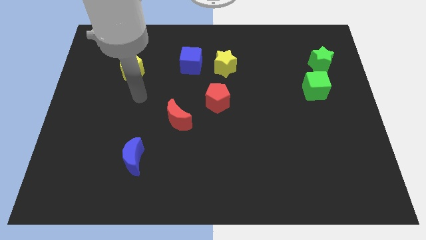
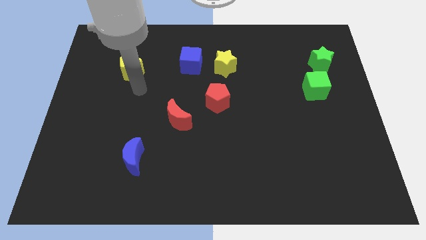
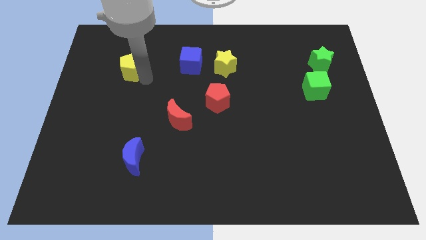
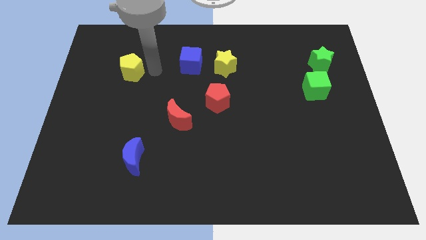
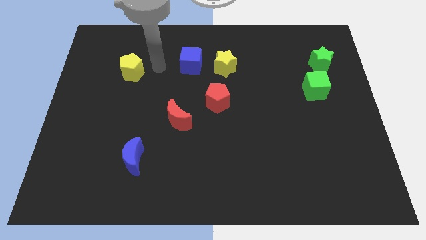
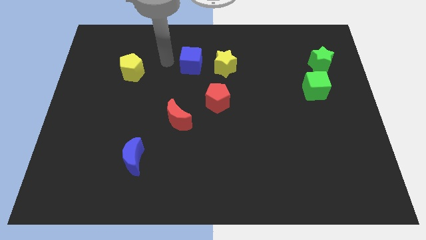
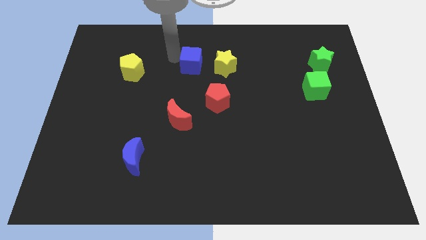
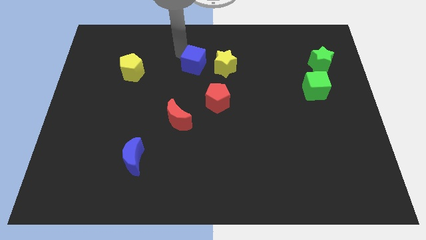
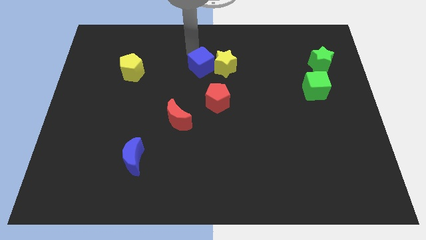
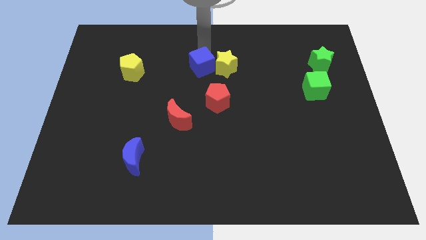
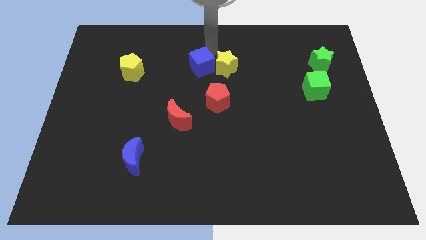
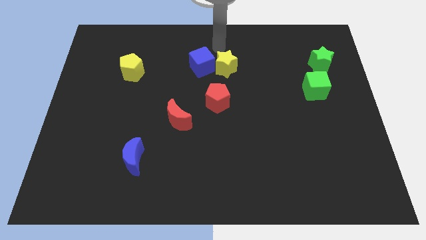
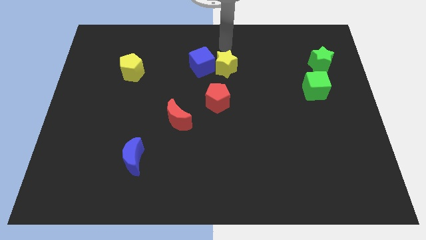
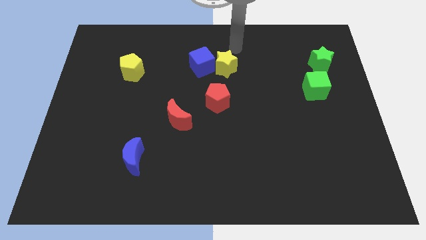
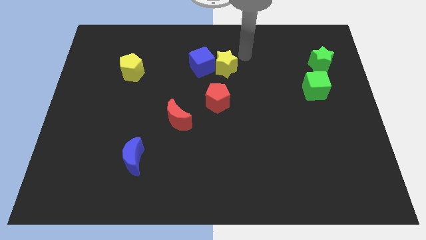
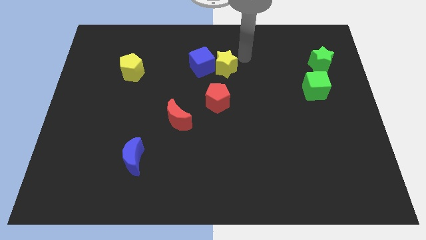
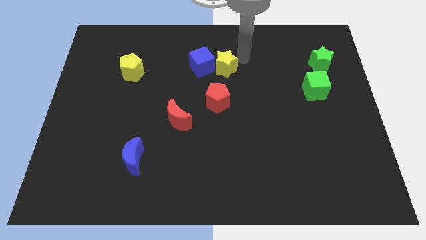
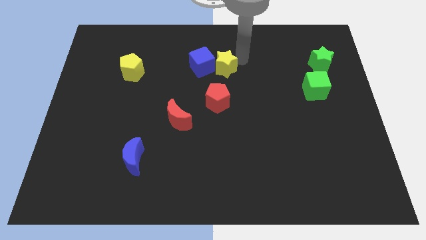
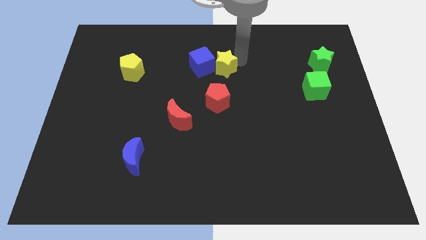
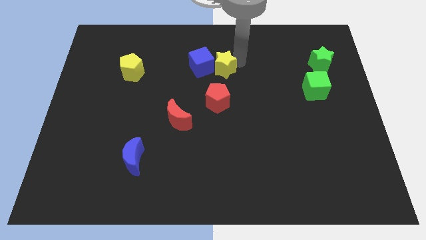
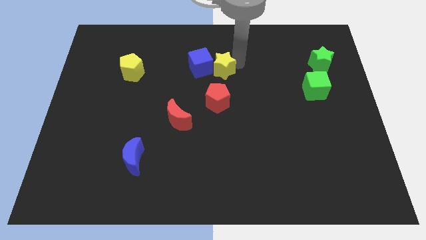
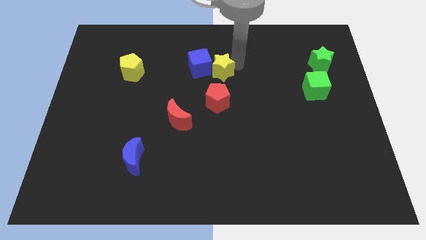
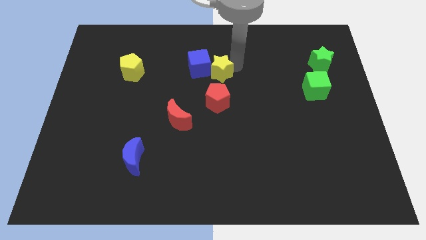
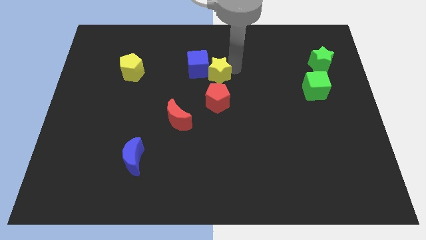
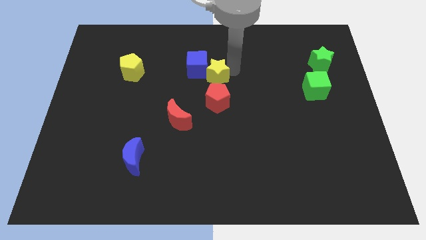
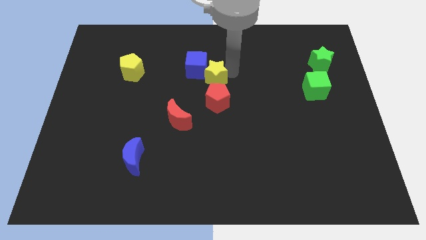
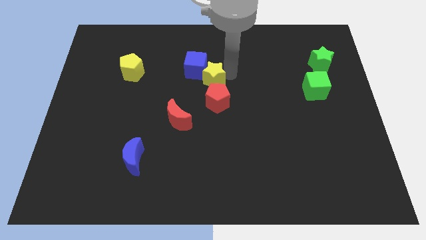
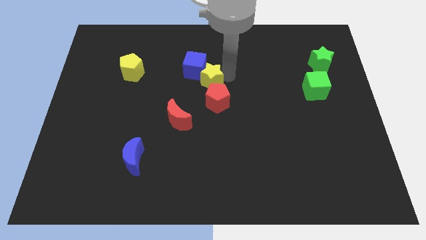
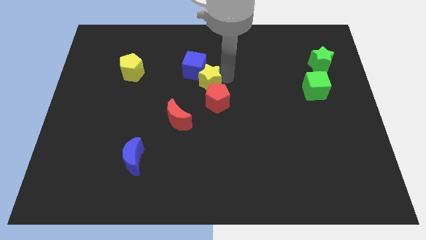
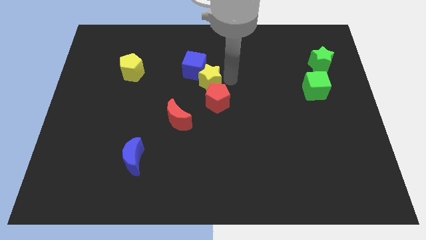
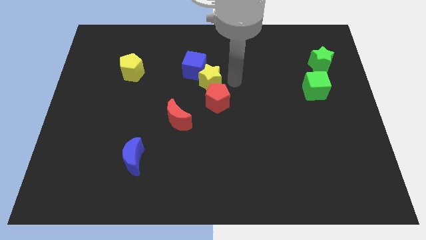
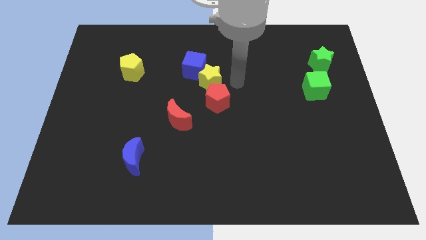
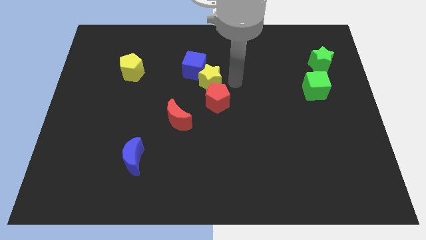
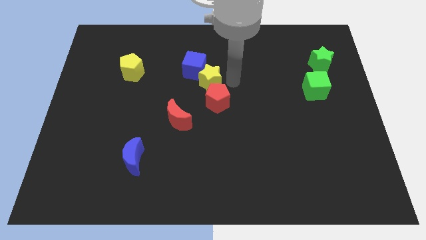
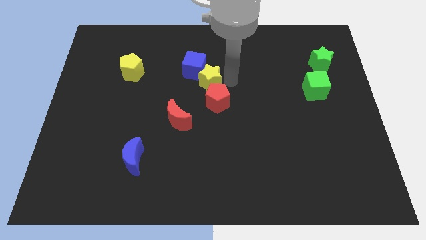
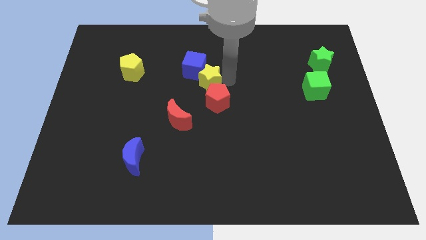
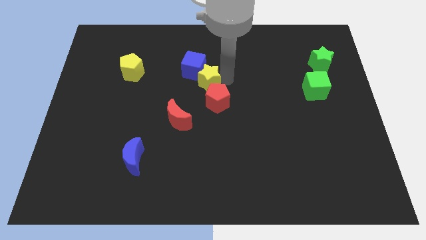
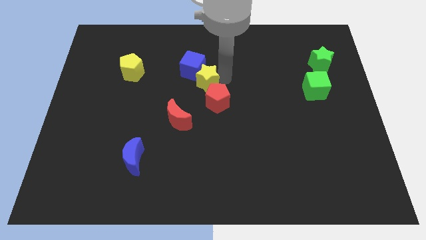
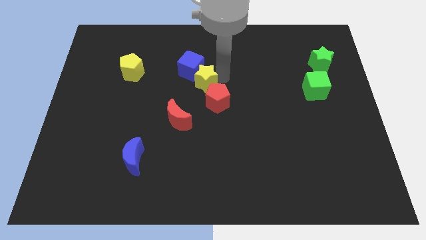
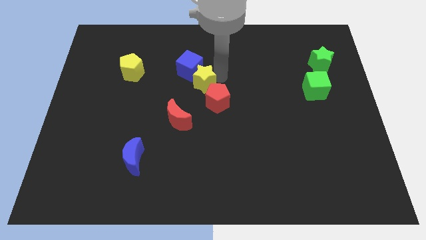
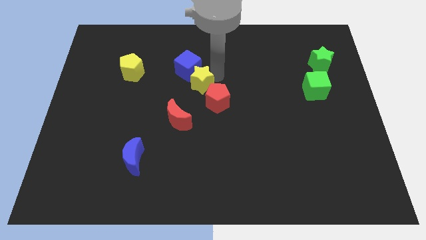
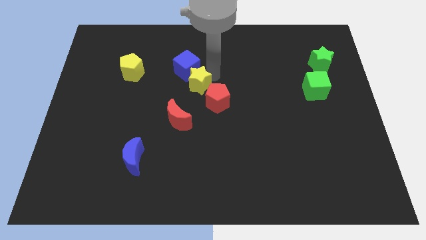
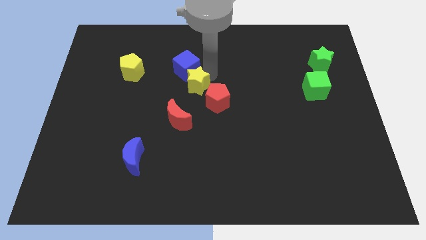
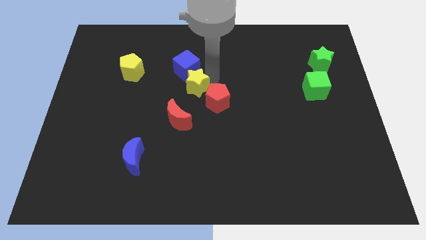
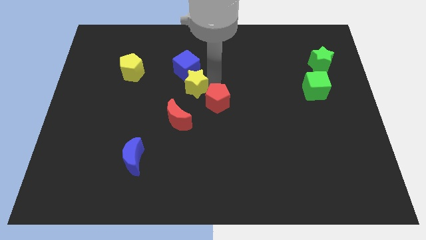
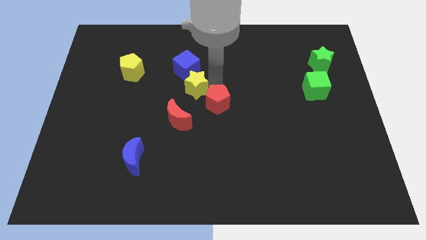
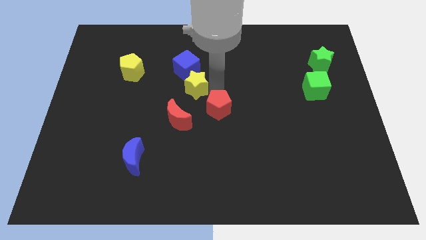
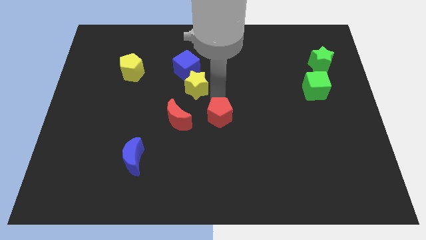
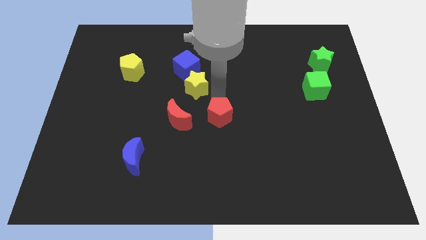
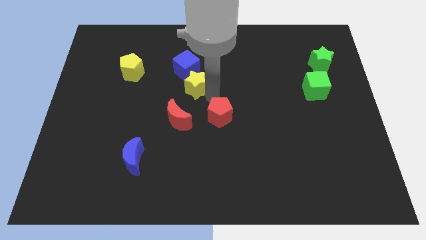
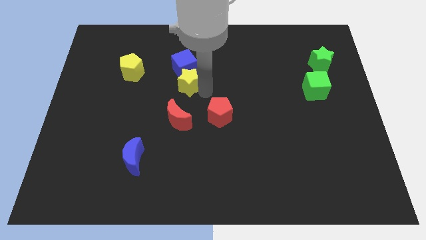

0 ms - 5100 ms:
move the yellow star to the left somewhat

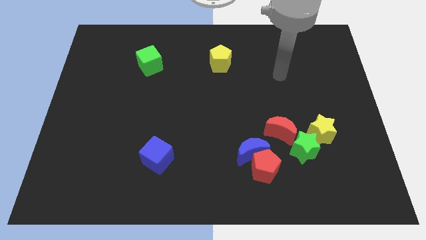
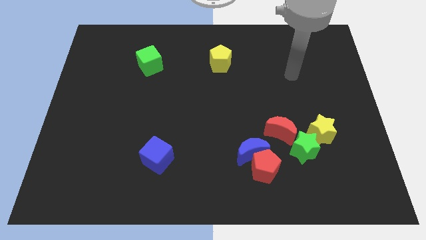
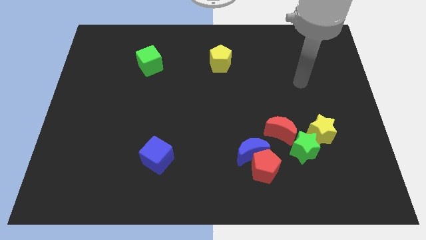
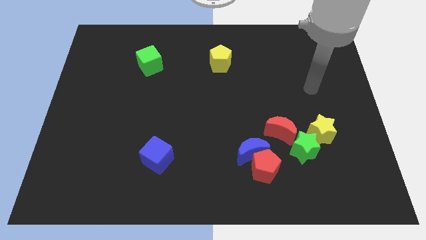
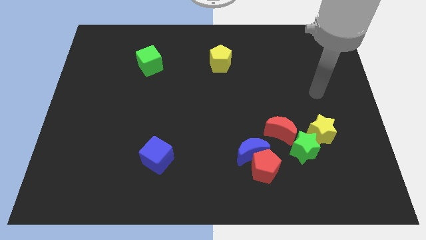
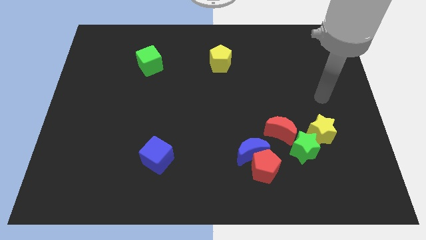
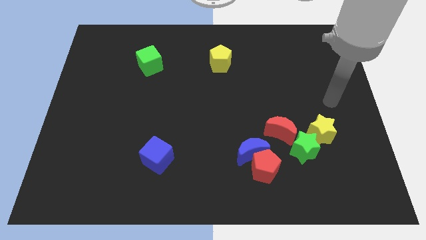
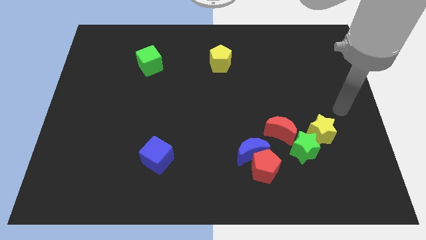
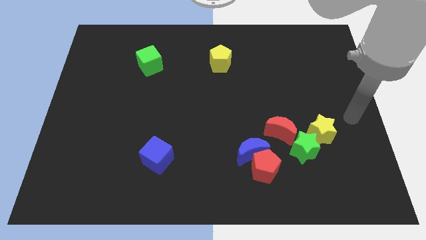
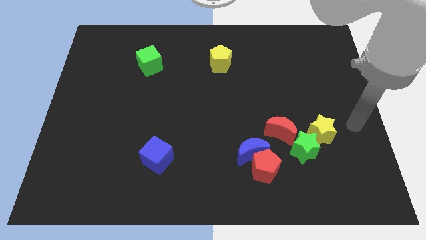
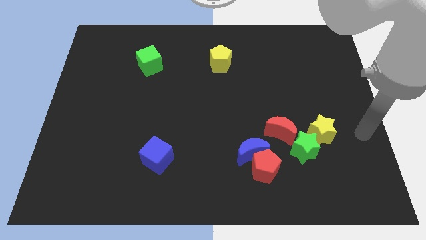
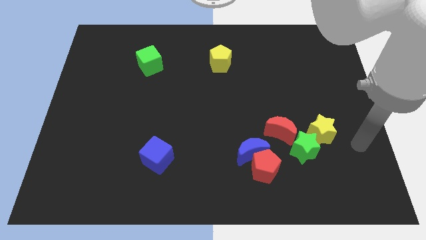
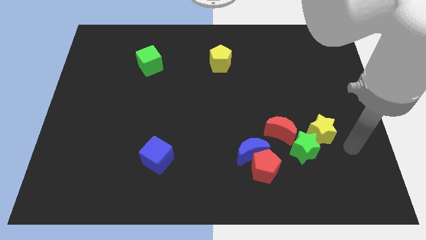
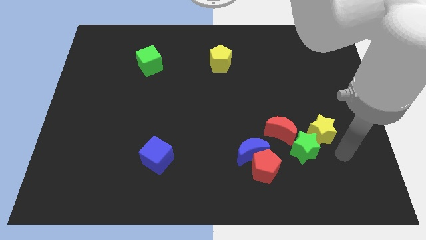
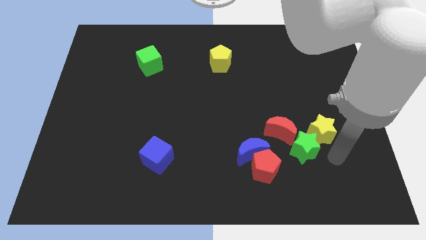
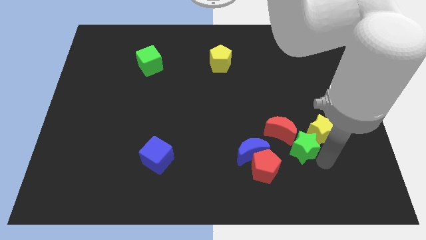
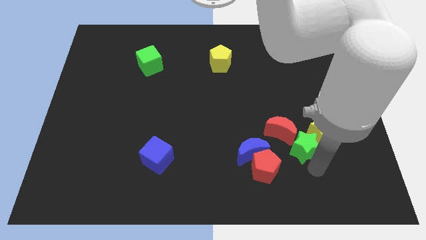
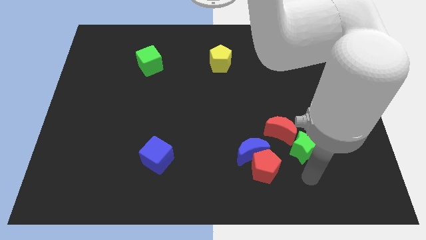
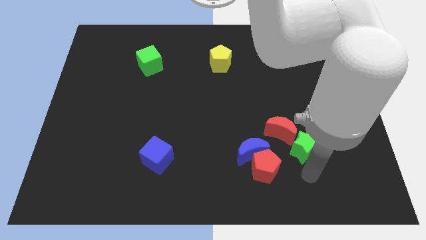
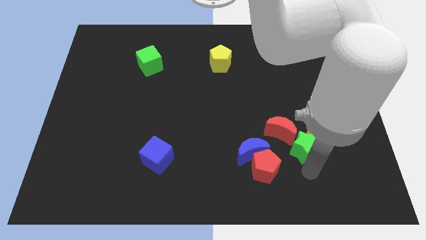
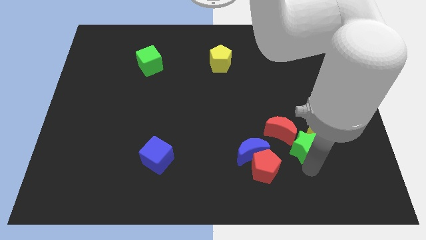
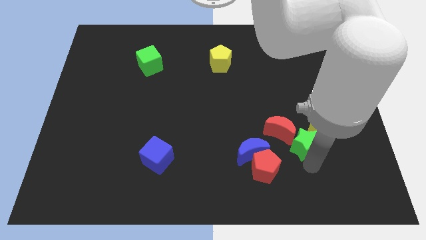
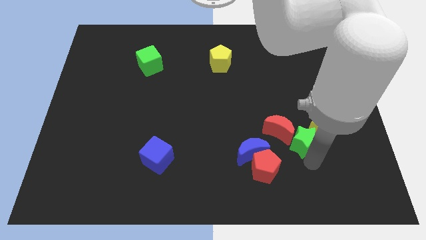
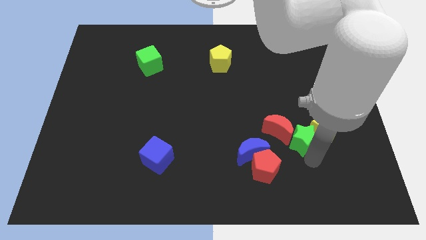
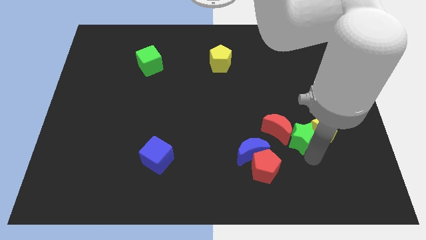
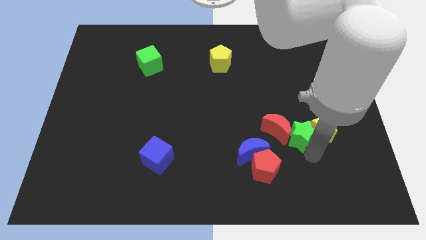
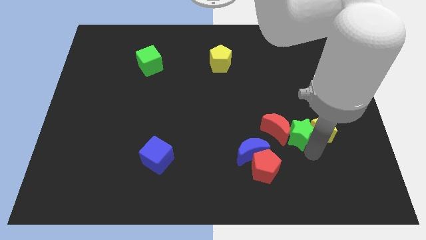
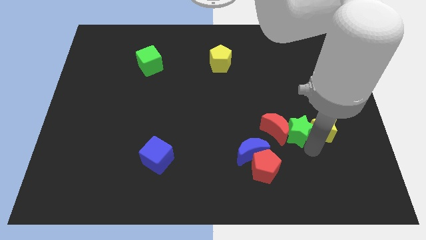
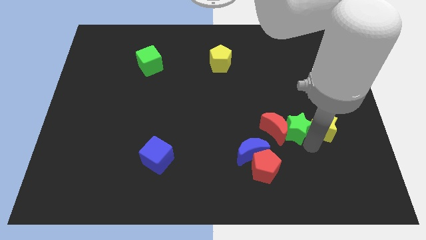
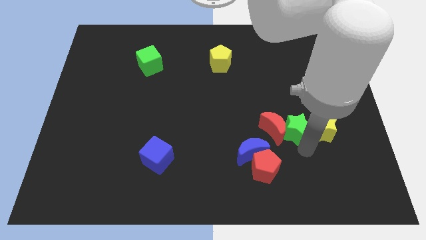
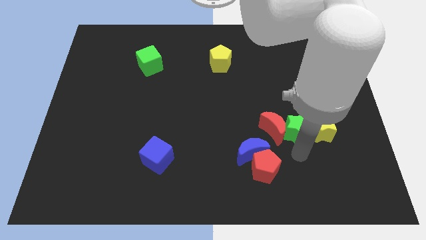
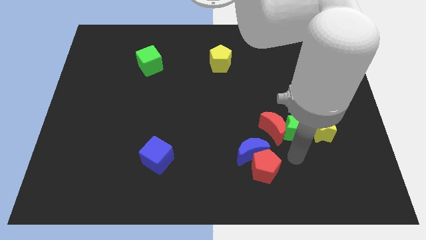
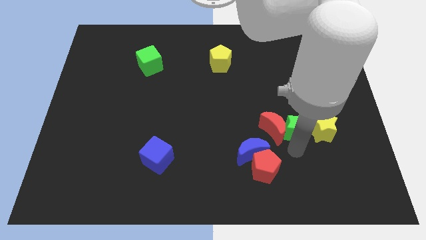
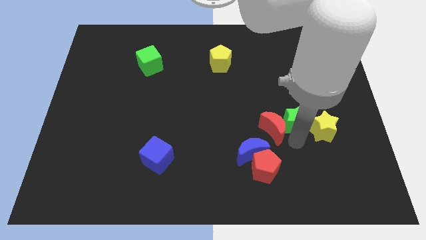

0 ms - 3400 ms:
slide the green star upwards a little bit
